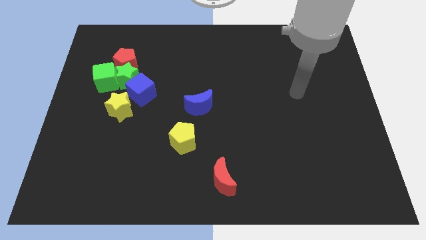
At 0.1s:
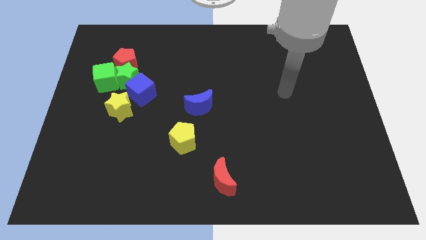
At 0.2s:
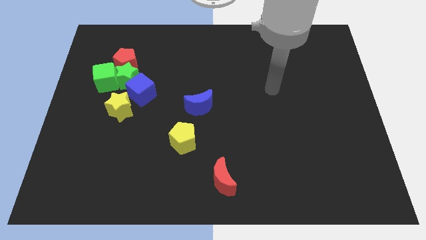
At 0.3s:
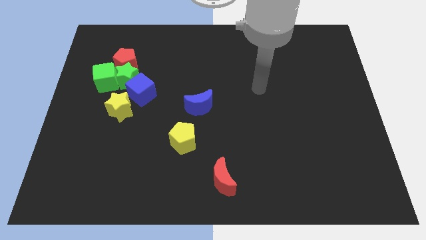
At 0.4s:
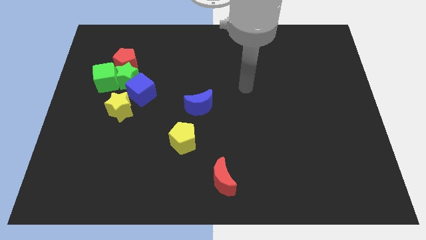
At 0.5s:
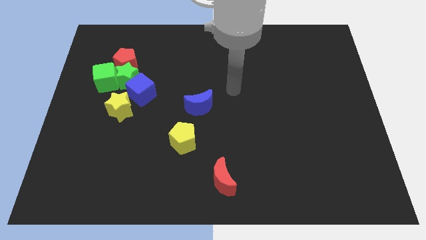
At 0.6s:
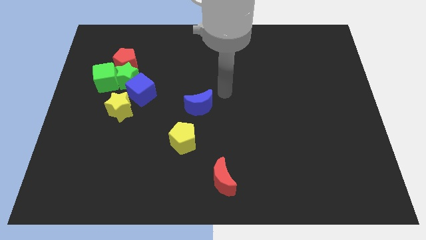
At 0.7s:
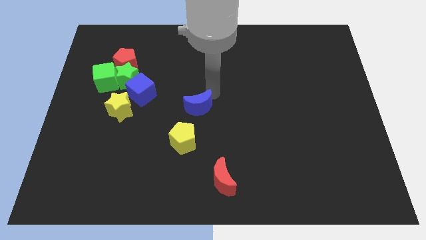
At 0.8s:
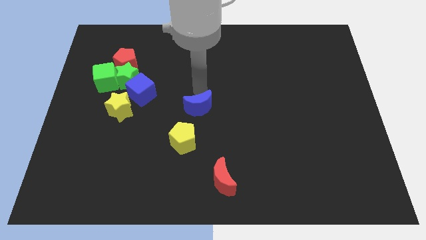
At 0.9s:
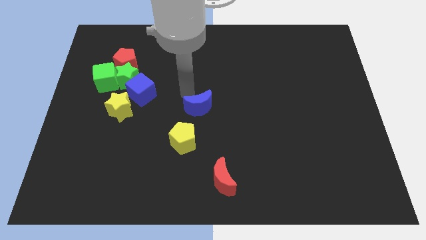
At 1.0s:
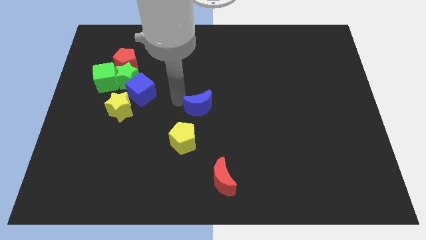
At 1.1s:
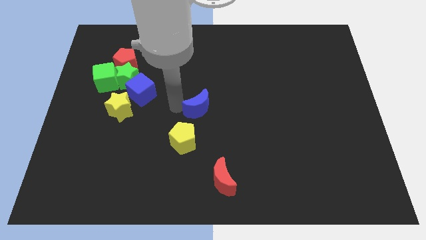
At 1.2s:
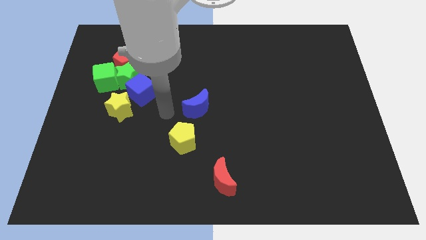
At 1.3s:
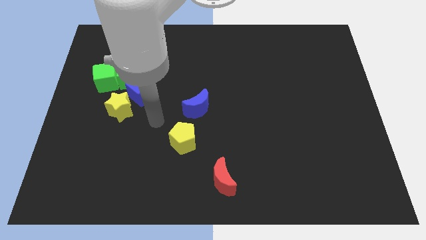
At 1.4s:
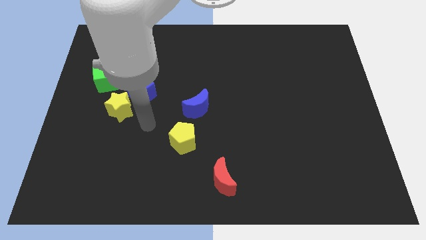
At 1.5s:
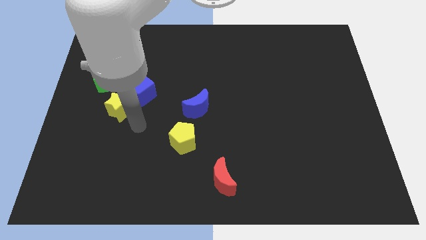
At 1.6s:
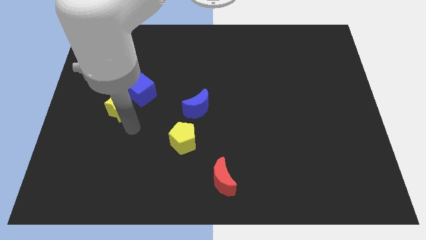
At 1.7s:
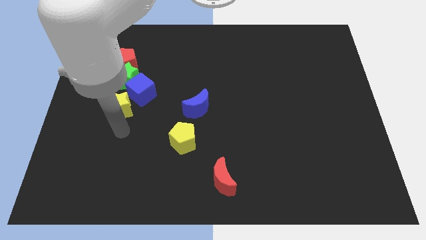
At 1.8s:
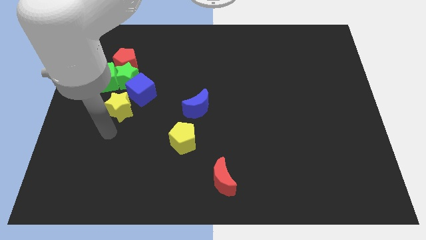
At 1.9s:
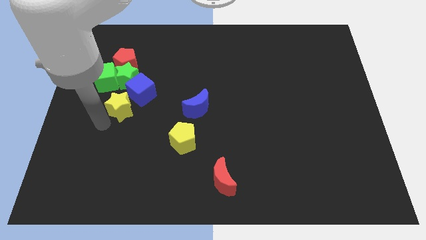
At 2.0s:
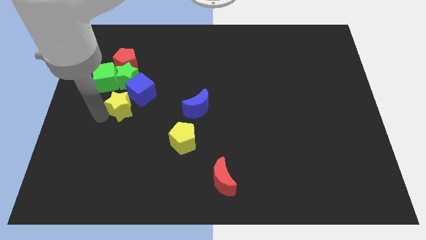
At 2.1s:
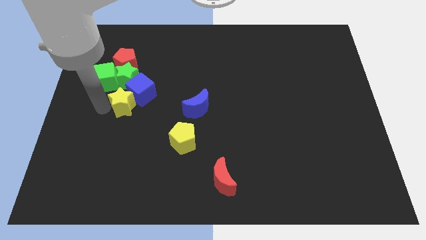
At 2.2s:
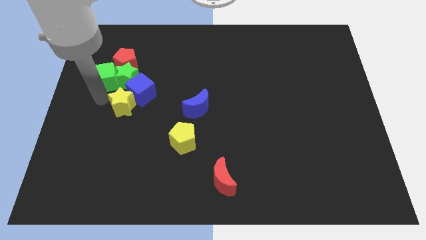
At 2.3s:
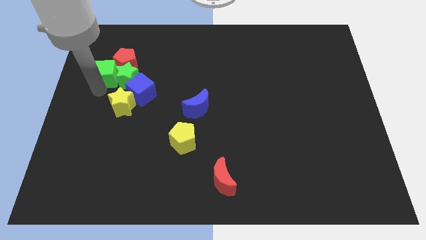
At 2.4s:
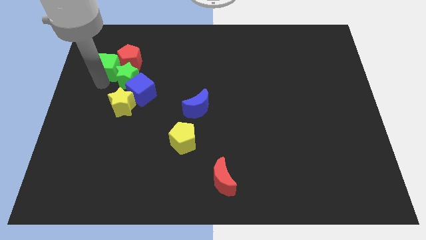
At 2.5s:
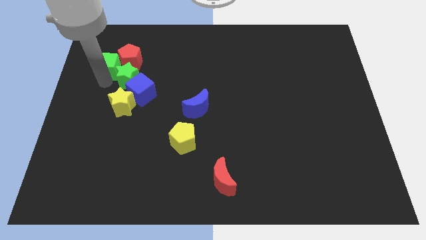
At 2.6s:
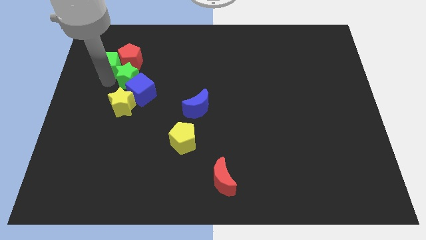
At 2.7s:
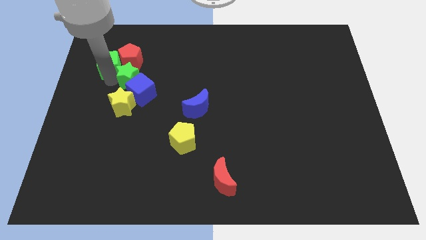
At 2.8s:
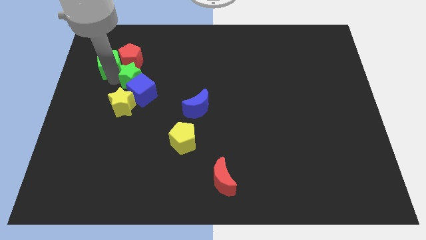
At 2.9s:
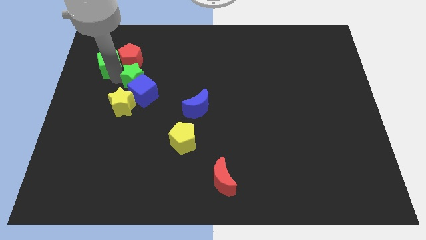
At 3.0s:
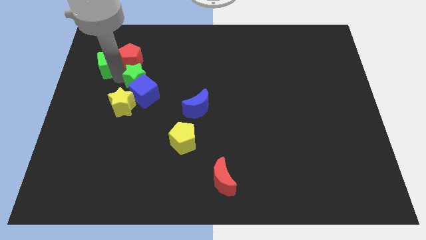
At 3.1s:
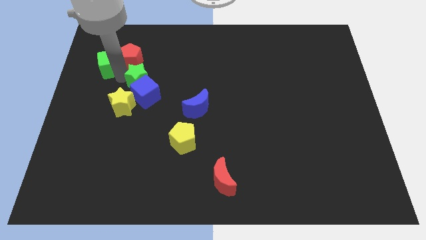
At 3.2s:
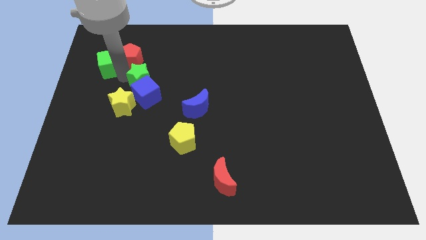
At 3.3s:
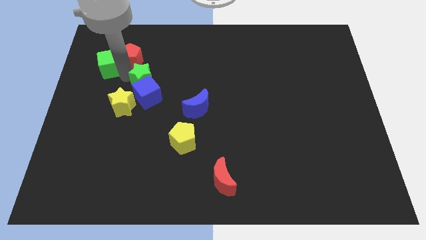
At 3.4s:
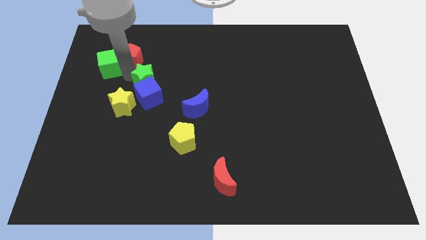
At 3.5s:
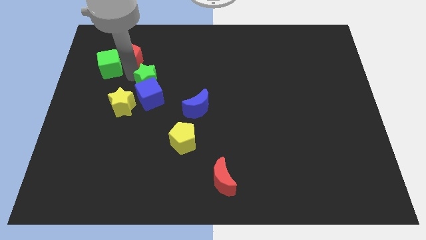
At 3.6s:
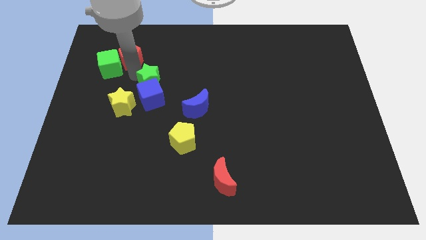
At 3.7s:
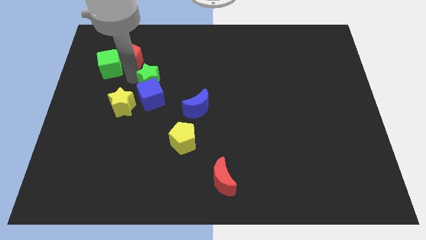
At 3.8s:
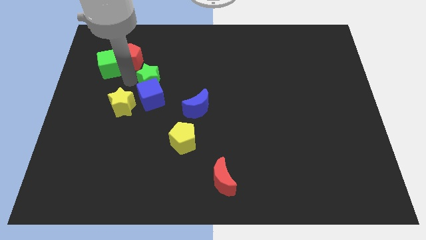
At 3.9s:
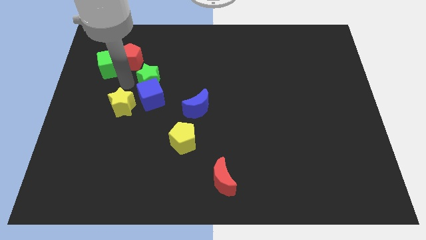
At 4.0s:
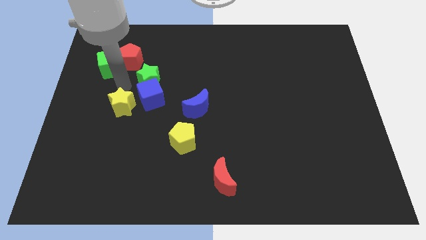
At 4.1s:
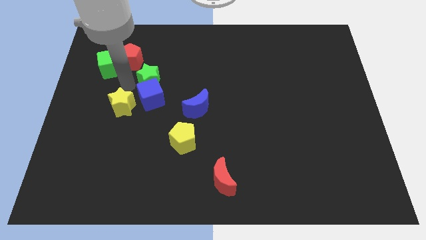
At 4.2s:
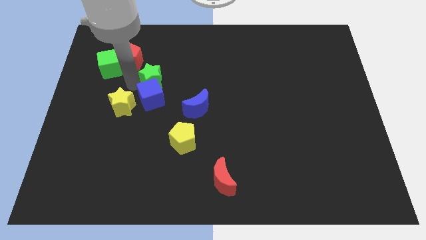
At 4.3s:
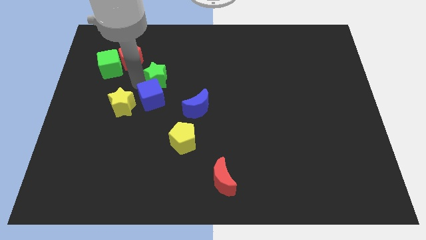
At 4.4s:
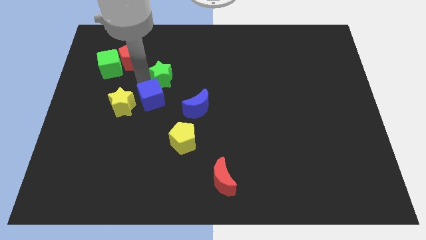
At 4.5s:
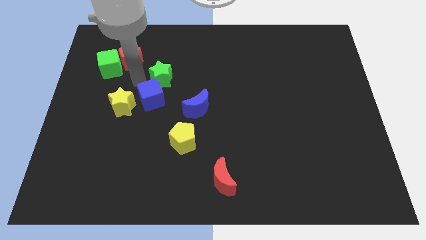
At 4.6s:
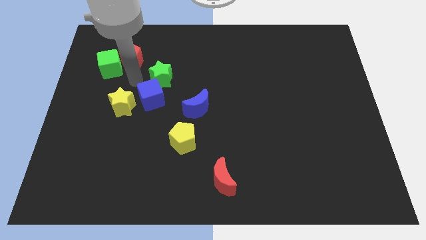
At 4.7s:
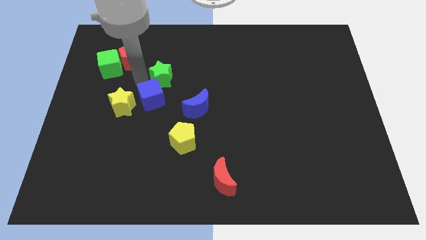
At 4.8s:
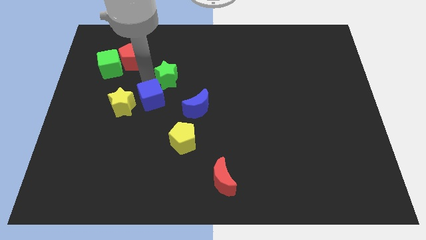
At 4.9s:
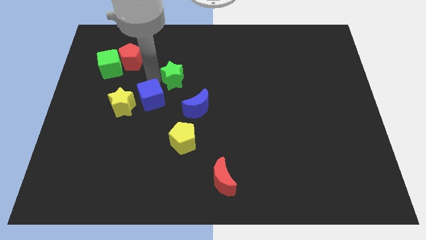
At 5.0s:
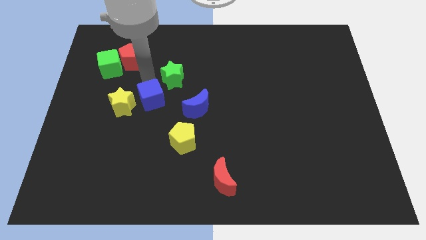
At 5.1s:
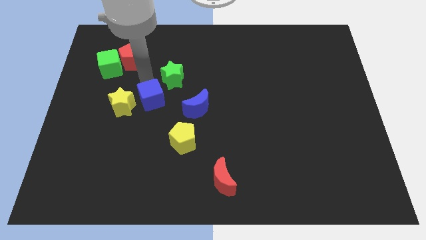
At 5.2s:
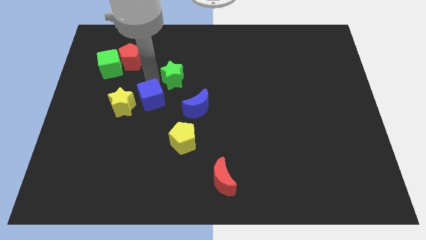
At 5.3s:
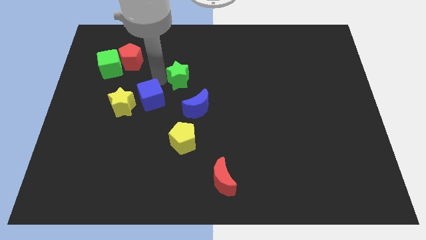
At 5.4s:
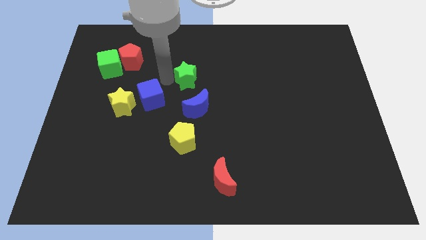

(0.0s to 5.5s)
move the green star to the top side of the blue moon
